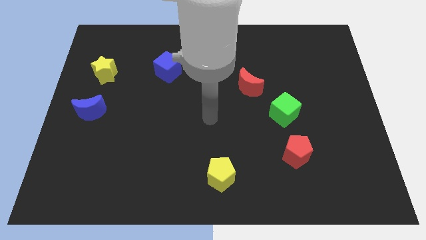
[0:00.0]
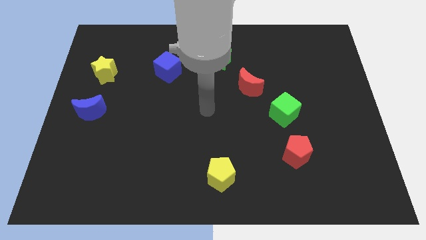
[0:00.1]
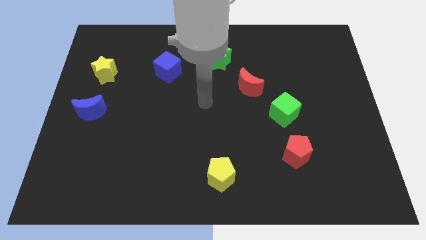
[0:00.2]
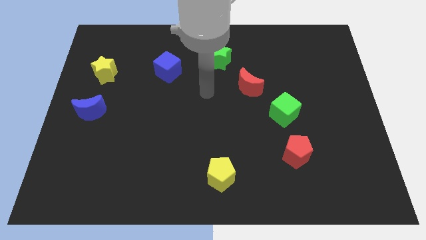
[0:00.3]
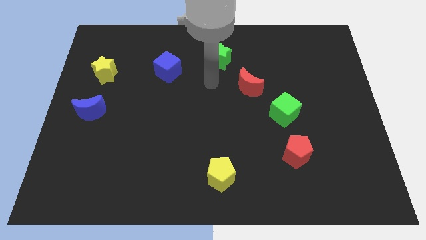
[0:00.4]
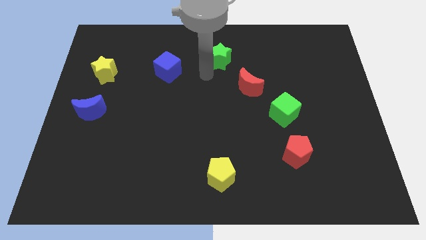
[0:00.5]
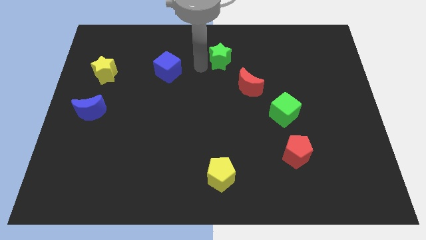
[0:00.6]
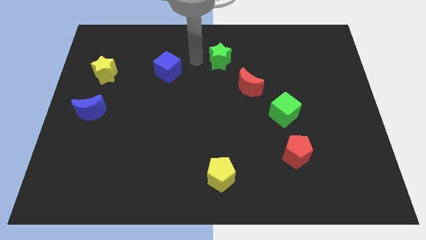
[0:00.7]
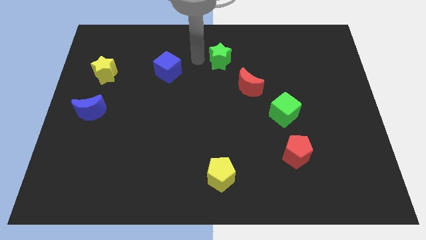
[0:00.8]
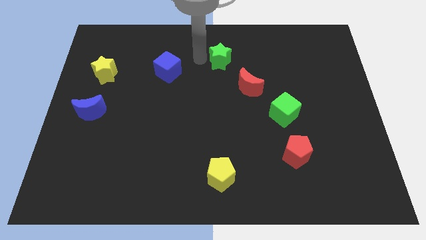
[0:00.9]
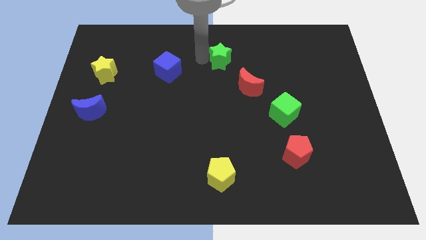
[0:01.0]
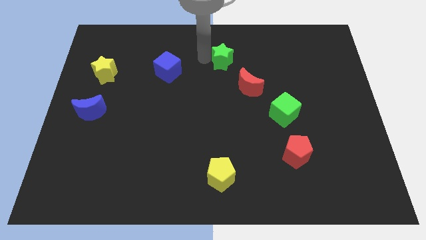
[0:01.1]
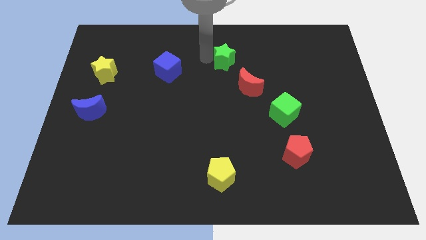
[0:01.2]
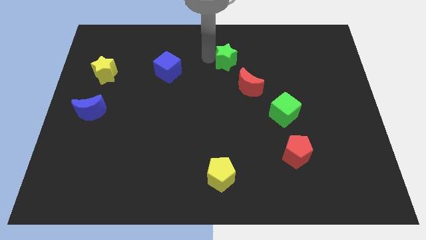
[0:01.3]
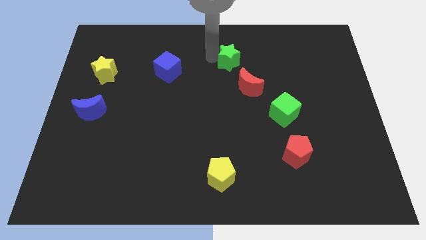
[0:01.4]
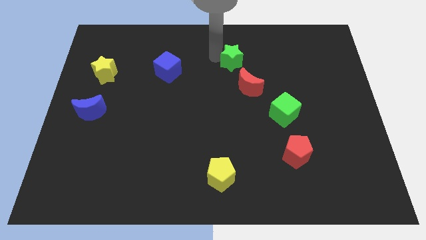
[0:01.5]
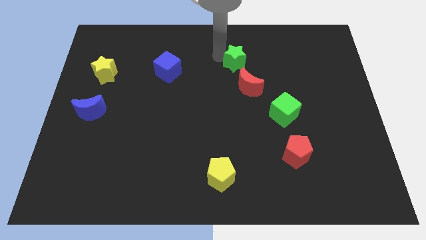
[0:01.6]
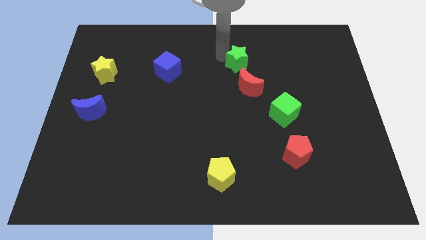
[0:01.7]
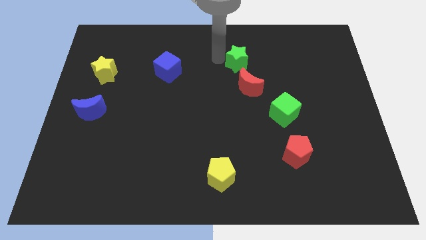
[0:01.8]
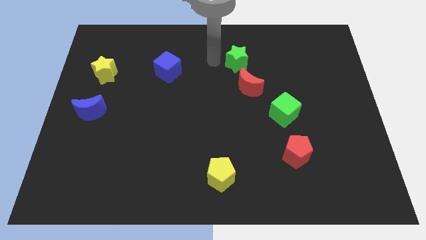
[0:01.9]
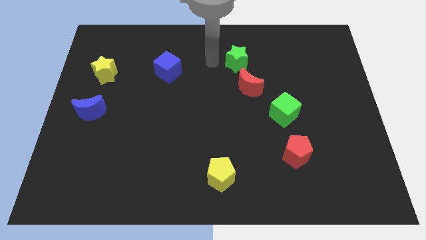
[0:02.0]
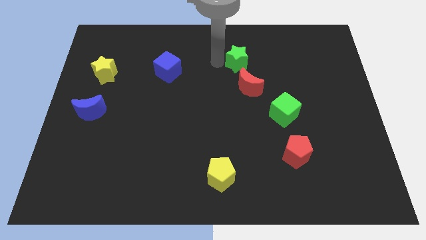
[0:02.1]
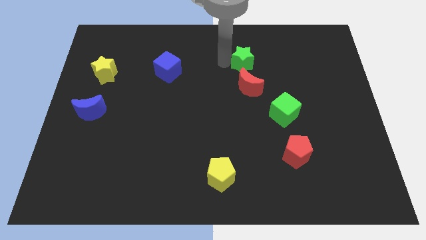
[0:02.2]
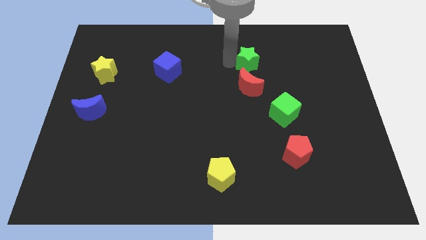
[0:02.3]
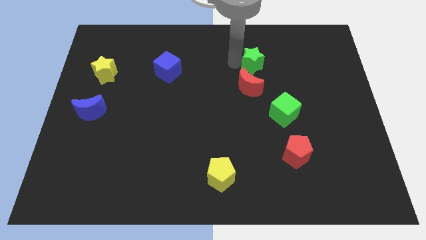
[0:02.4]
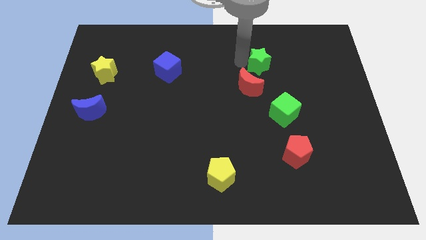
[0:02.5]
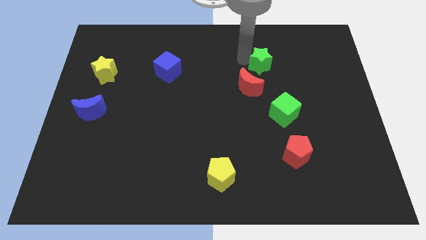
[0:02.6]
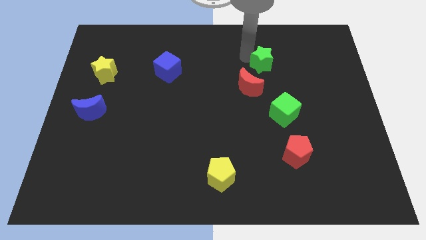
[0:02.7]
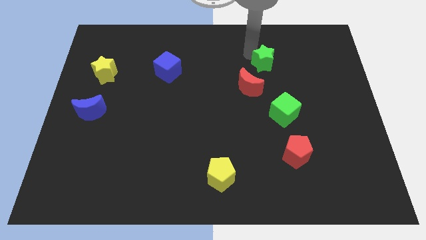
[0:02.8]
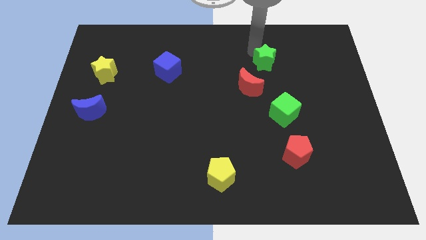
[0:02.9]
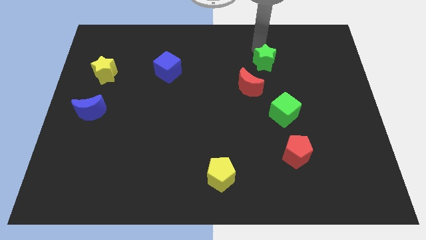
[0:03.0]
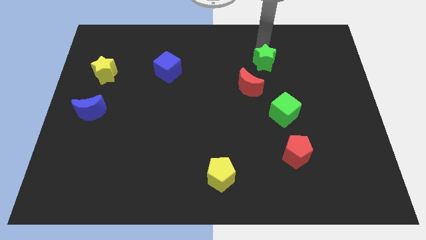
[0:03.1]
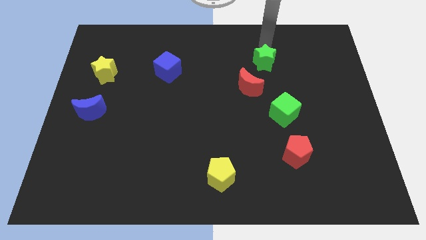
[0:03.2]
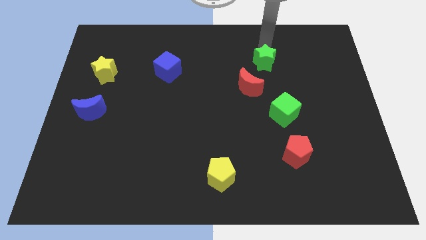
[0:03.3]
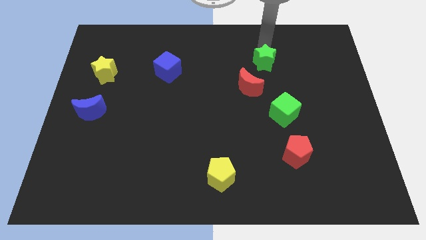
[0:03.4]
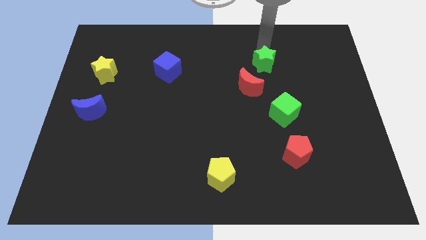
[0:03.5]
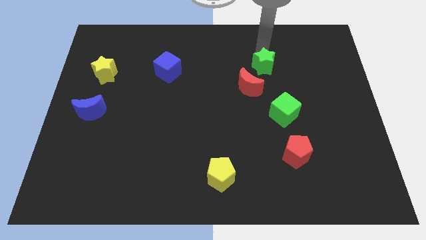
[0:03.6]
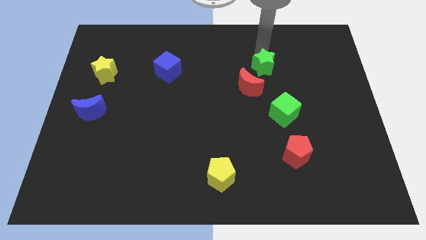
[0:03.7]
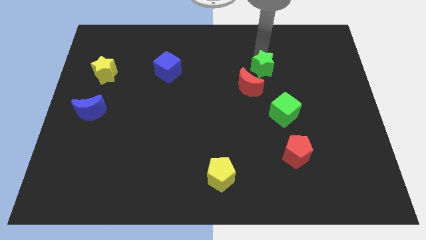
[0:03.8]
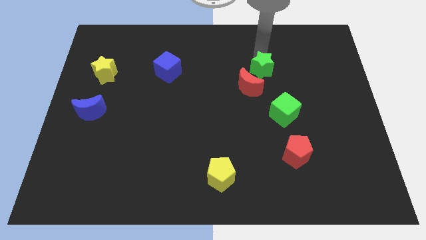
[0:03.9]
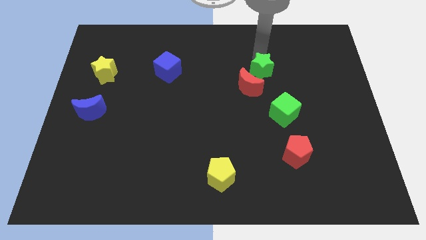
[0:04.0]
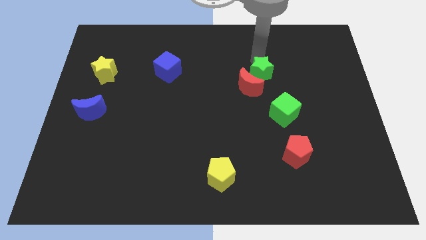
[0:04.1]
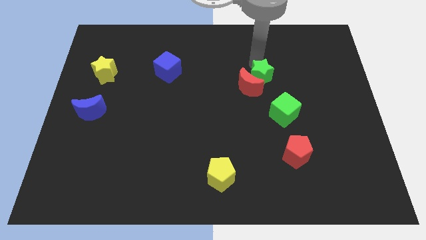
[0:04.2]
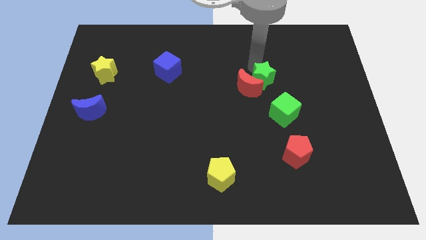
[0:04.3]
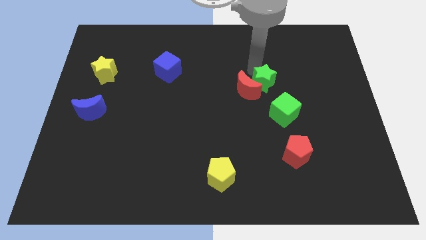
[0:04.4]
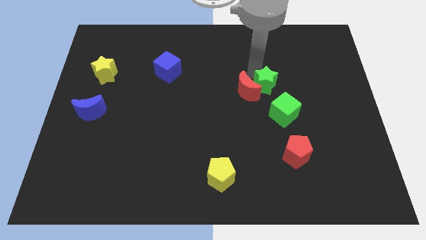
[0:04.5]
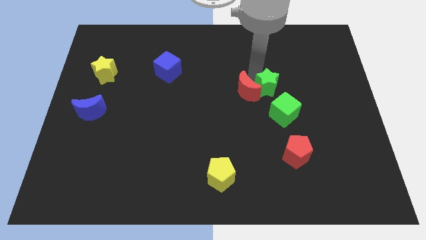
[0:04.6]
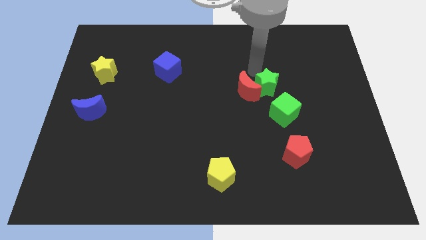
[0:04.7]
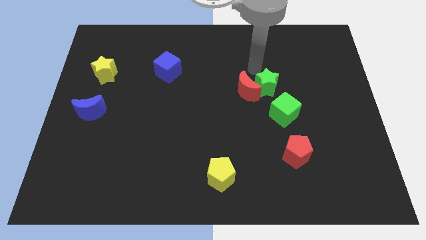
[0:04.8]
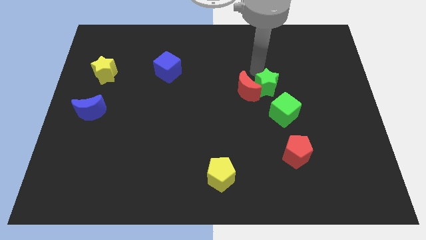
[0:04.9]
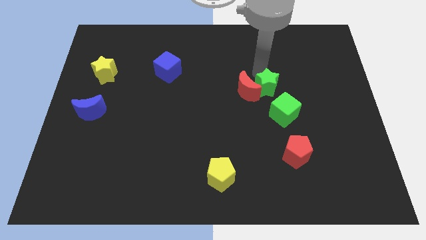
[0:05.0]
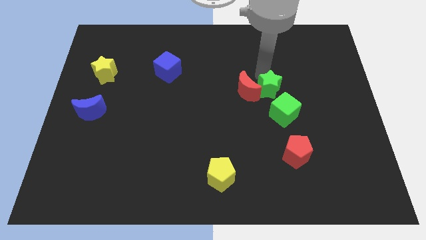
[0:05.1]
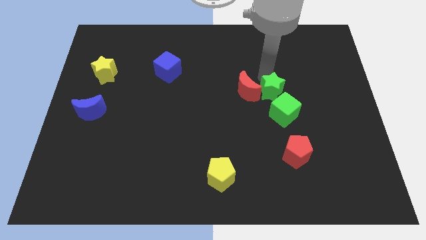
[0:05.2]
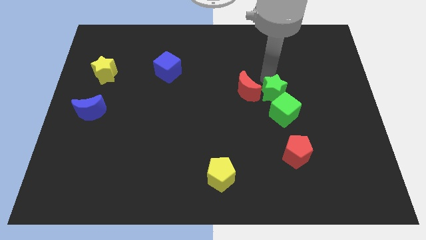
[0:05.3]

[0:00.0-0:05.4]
slide the green star next to the green cube

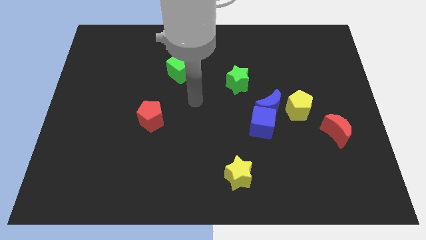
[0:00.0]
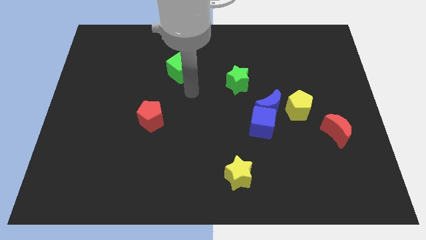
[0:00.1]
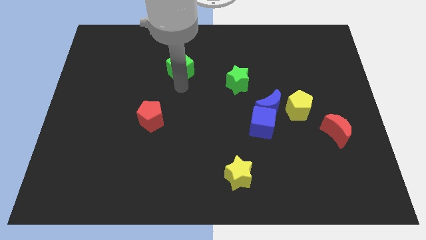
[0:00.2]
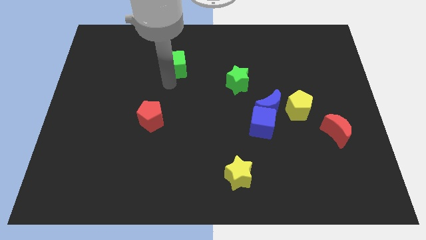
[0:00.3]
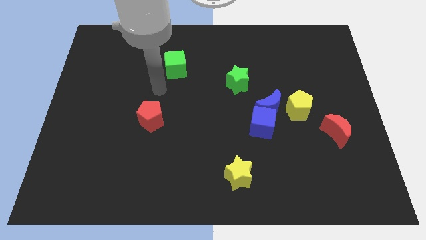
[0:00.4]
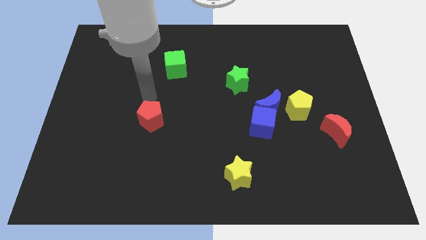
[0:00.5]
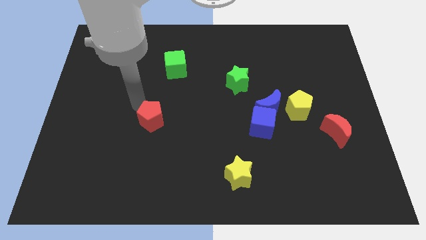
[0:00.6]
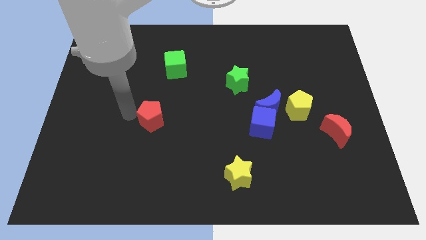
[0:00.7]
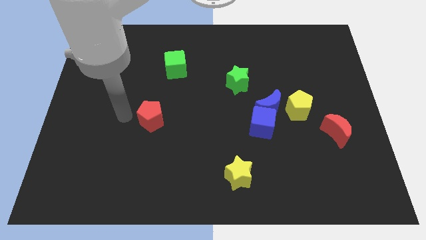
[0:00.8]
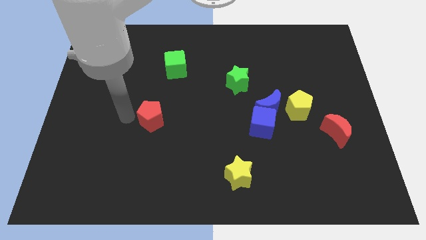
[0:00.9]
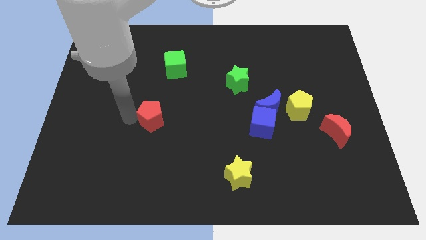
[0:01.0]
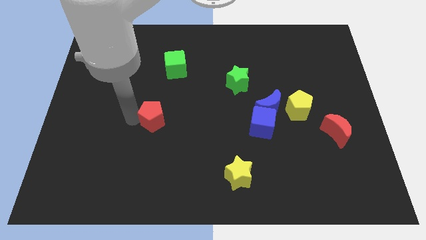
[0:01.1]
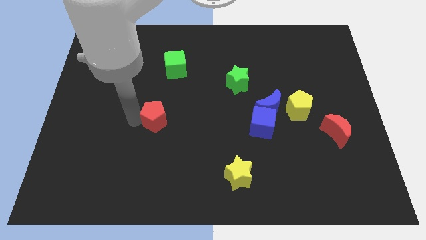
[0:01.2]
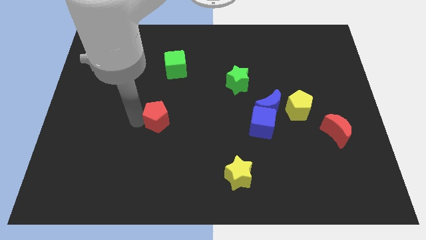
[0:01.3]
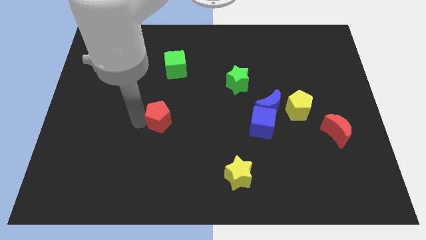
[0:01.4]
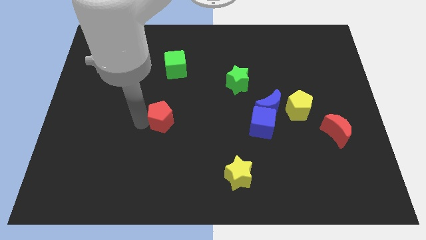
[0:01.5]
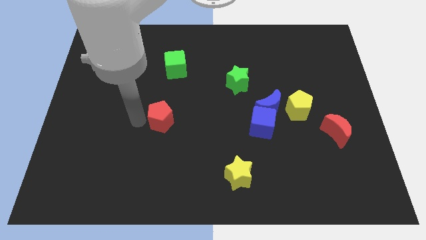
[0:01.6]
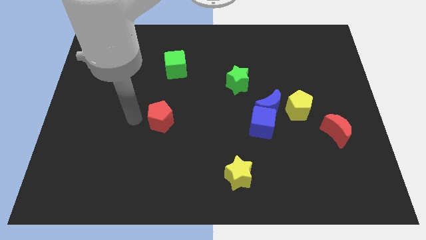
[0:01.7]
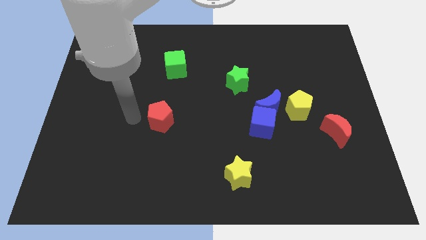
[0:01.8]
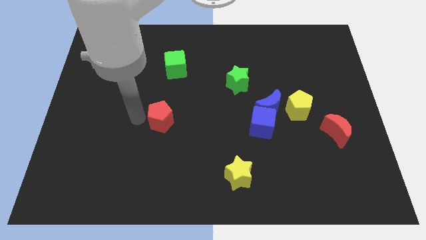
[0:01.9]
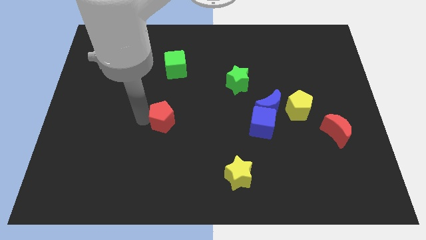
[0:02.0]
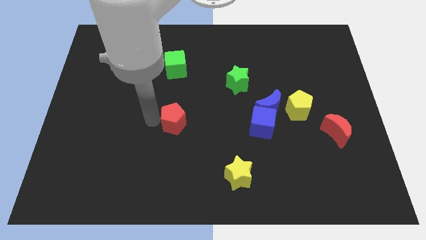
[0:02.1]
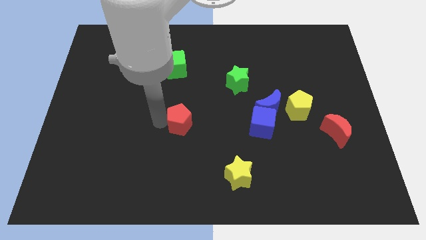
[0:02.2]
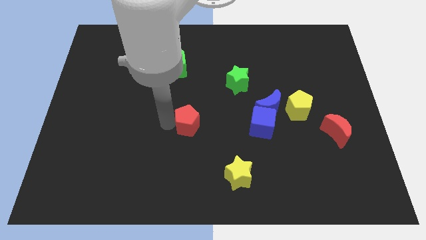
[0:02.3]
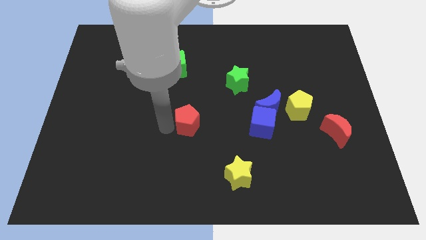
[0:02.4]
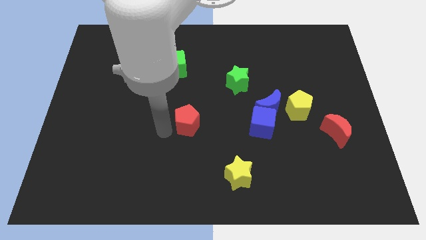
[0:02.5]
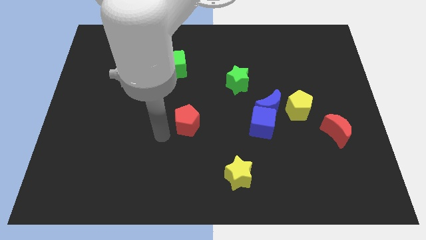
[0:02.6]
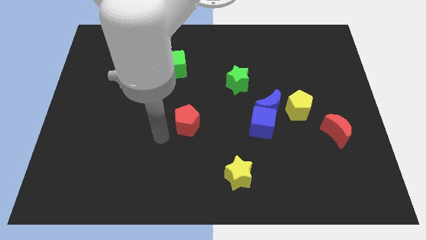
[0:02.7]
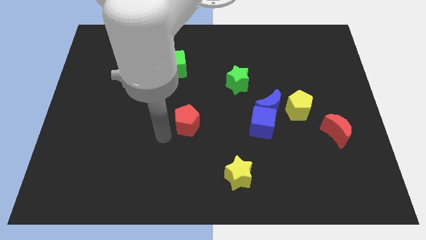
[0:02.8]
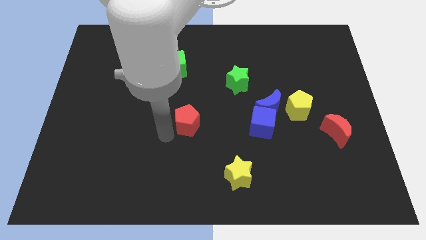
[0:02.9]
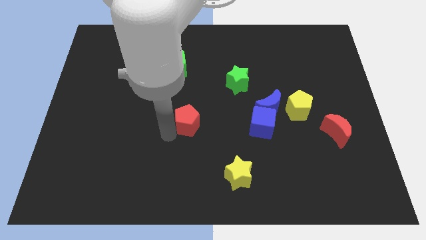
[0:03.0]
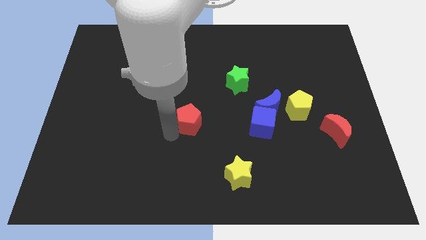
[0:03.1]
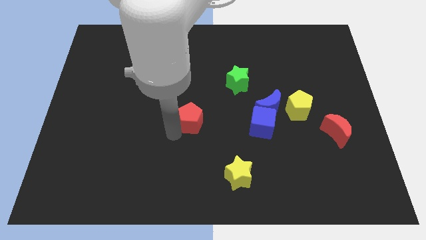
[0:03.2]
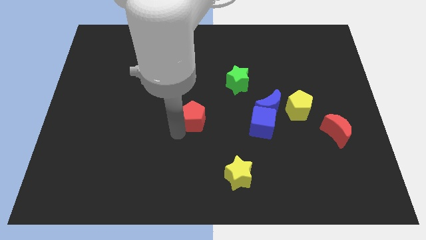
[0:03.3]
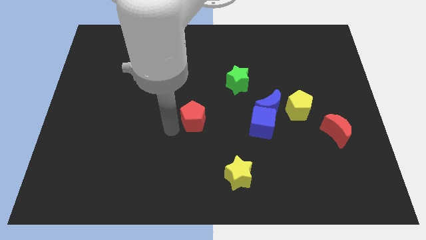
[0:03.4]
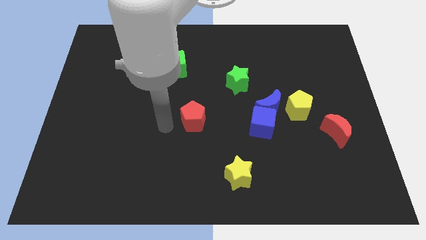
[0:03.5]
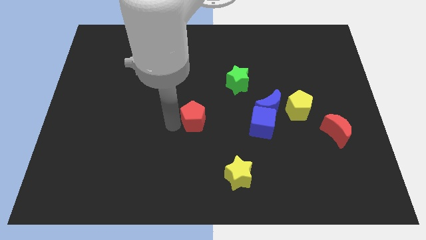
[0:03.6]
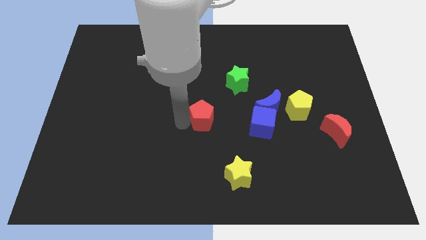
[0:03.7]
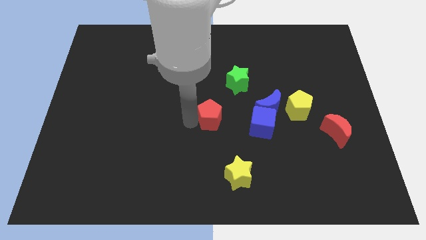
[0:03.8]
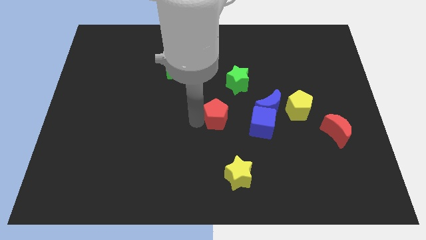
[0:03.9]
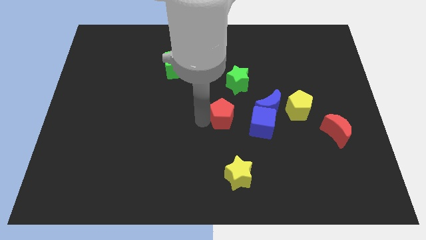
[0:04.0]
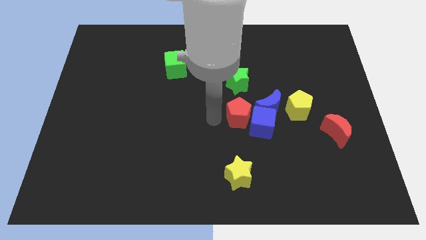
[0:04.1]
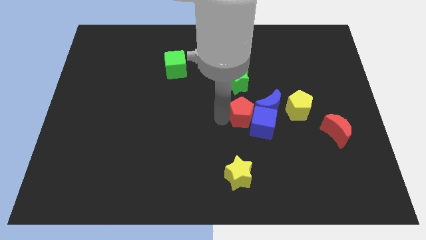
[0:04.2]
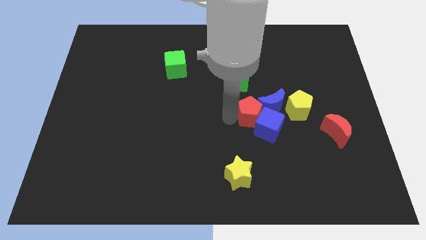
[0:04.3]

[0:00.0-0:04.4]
move the red pentagon to the blue moon
